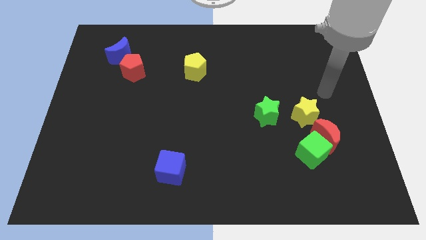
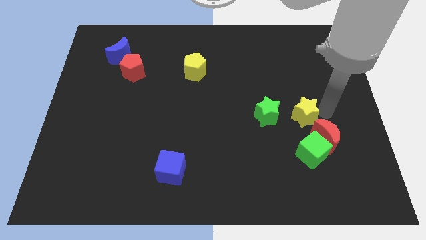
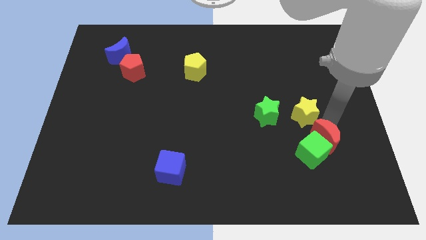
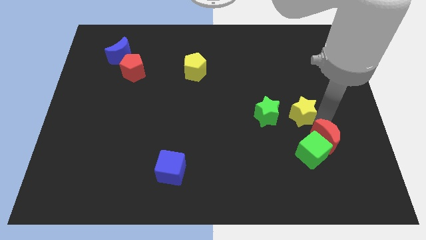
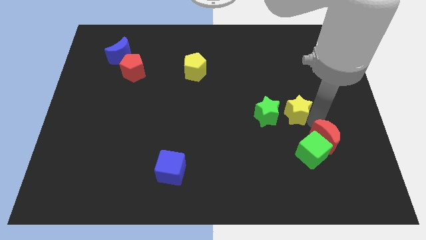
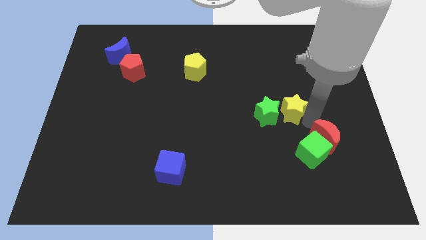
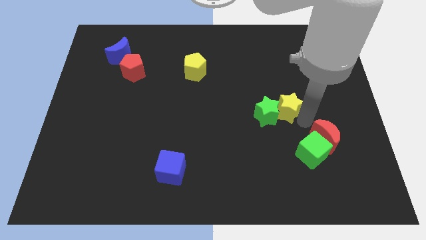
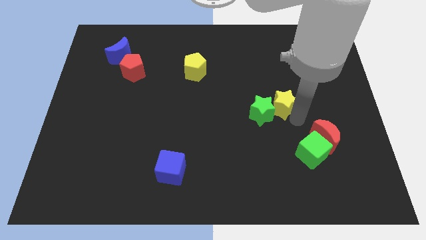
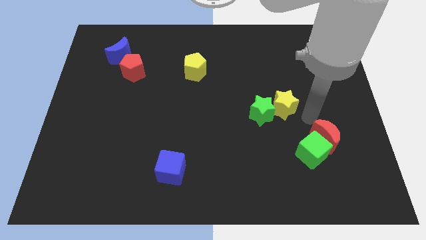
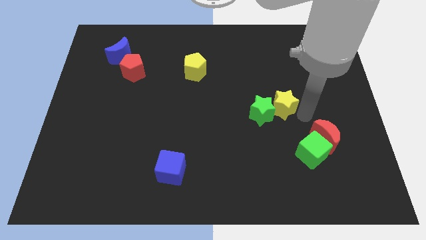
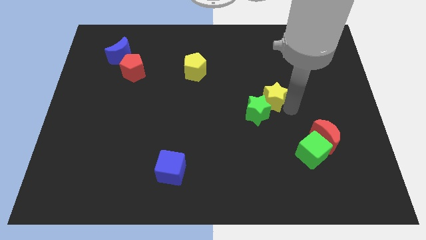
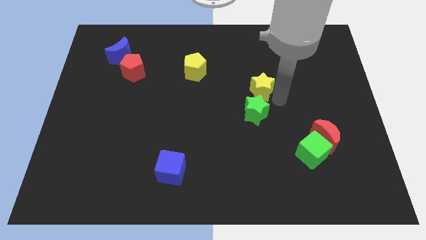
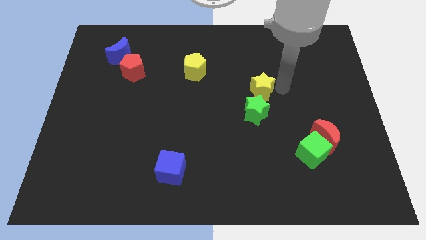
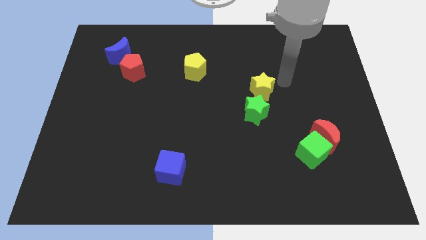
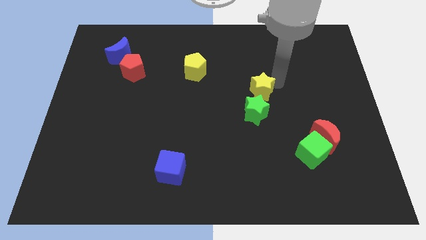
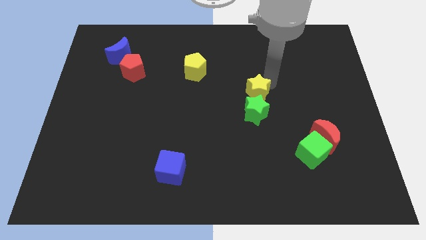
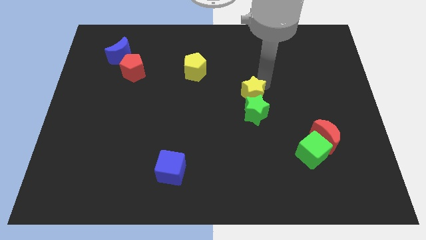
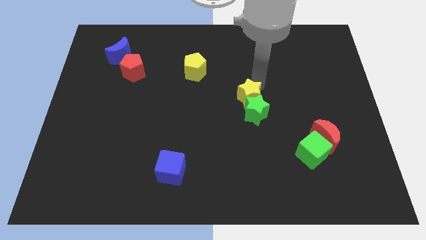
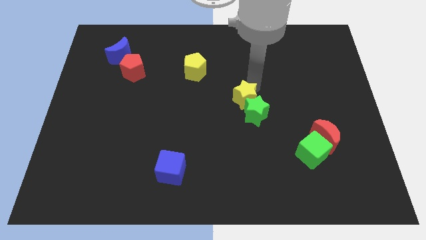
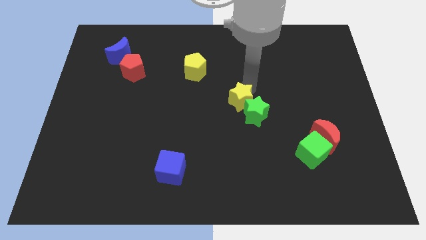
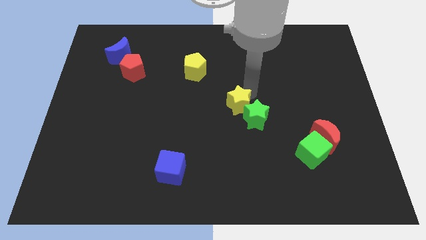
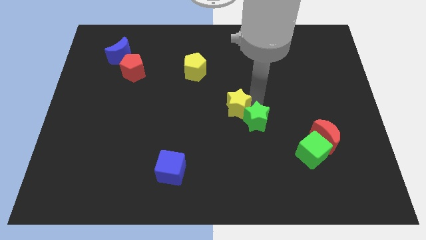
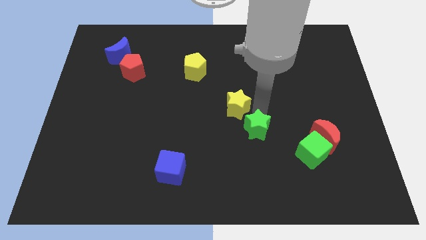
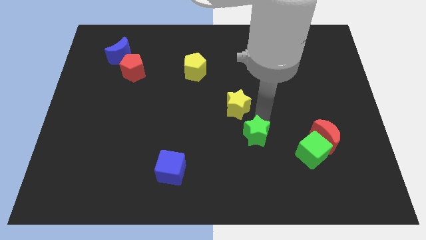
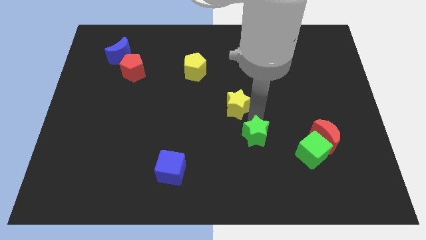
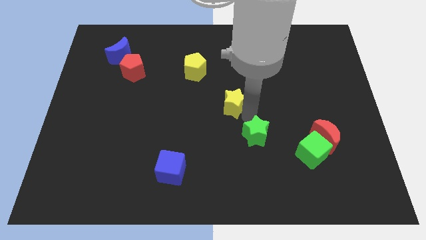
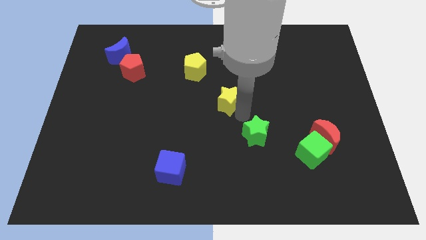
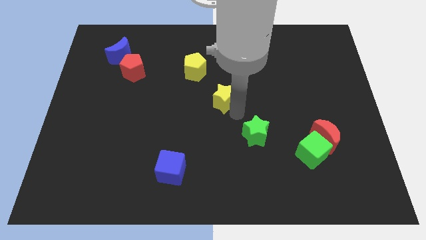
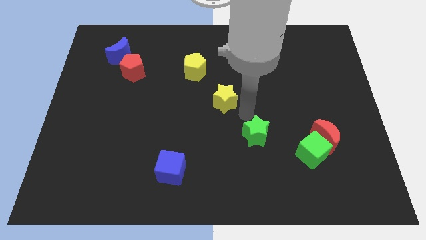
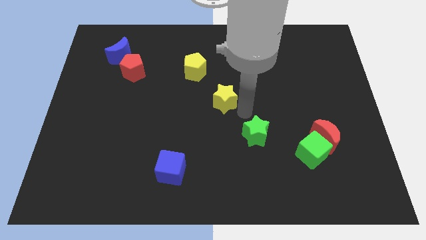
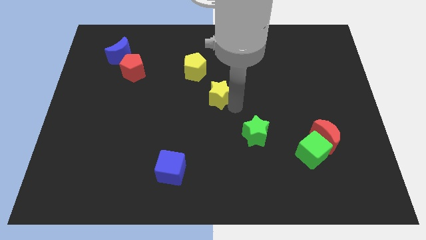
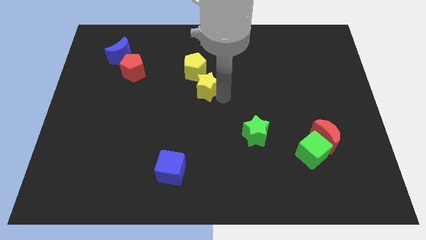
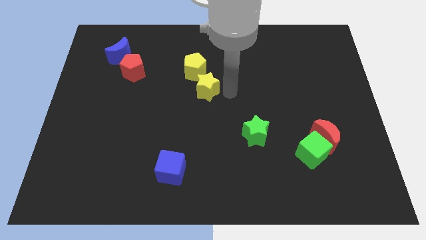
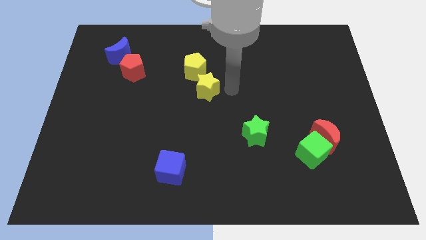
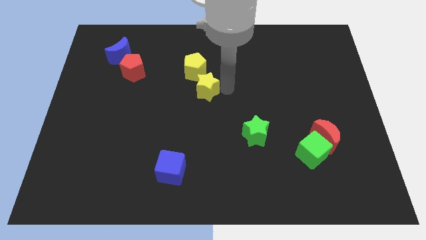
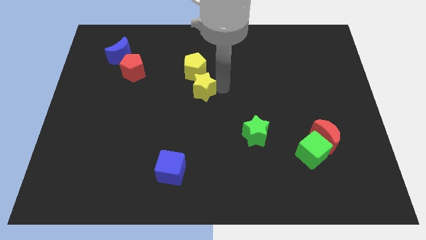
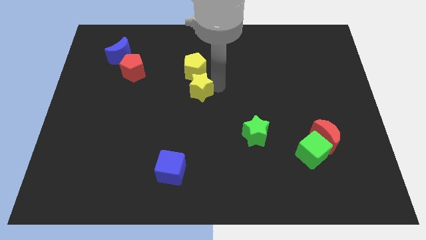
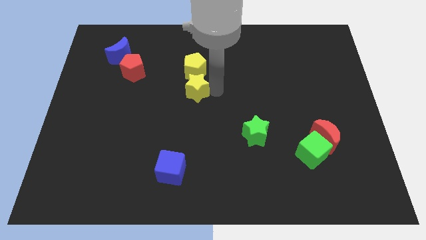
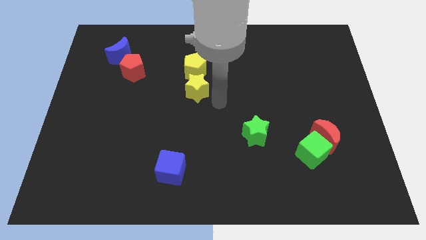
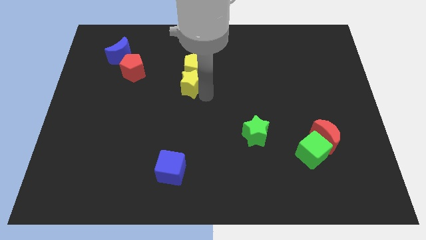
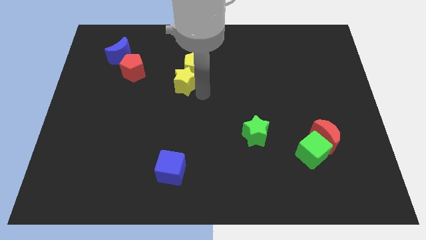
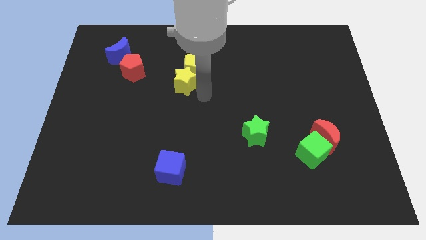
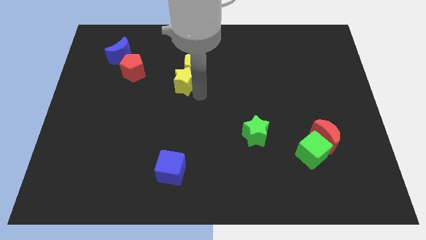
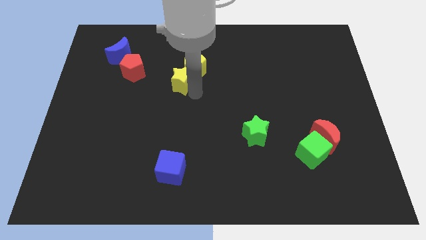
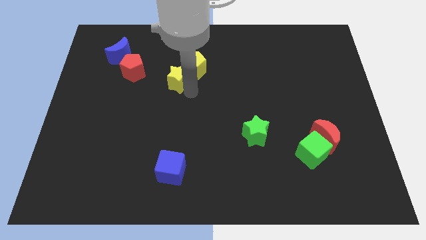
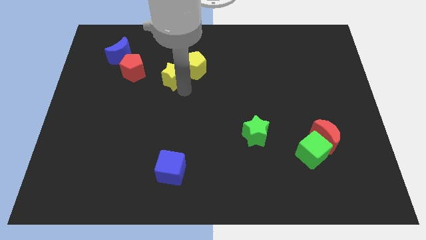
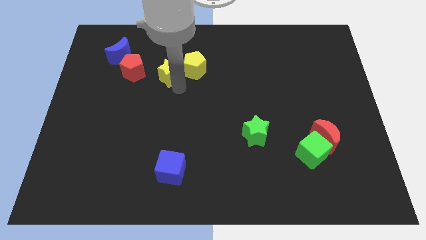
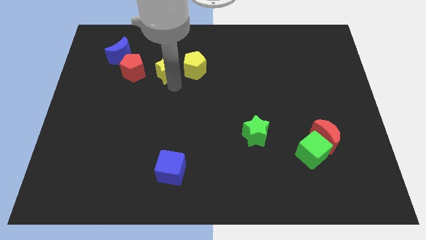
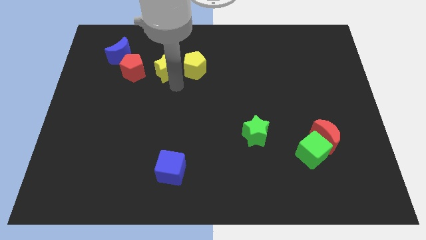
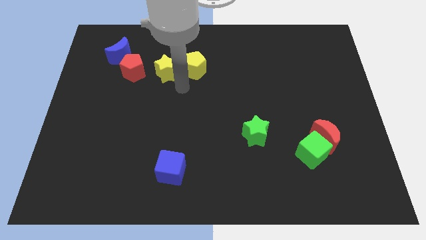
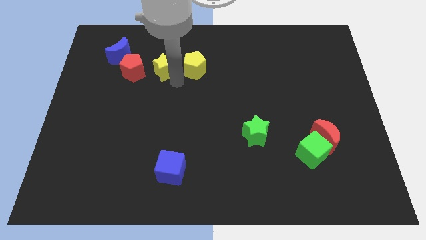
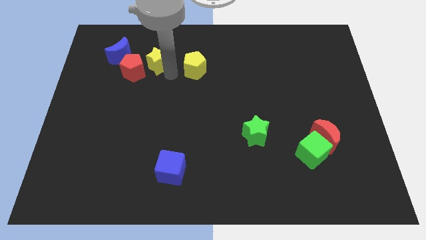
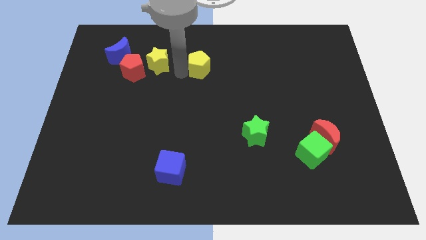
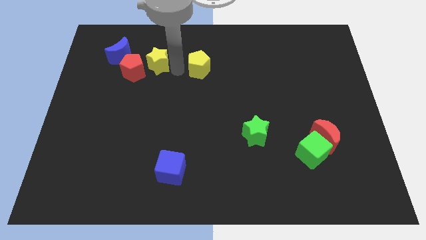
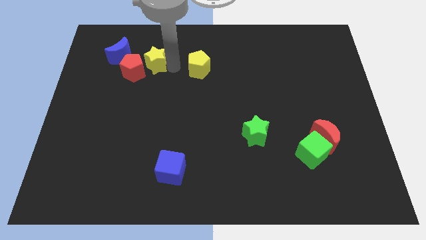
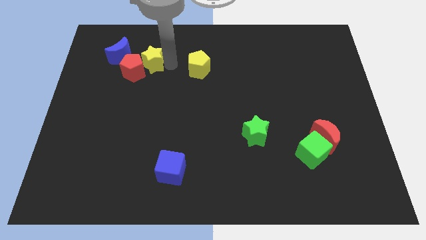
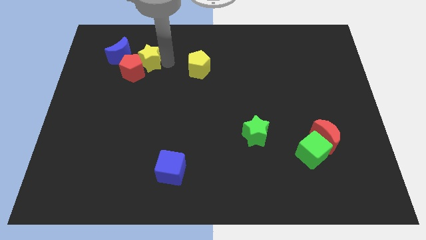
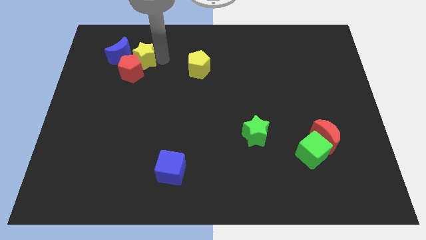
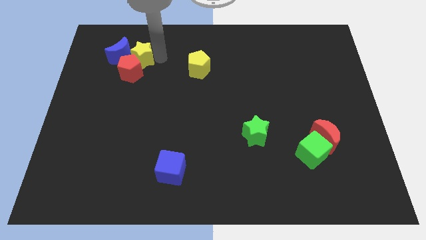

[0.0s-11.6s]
put the yellow star next to the blue moon

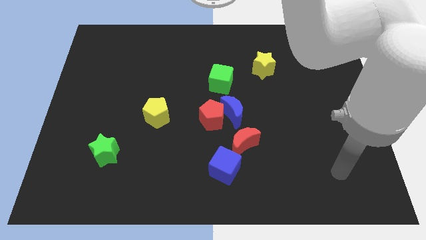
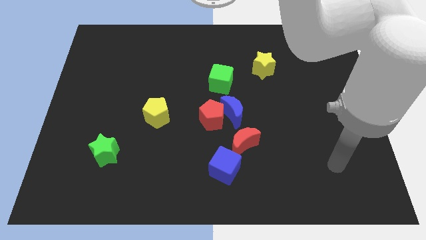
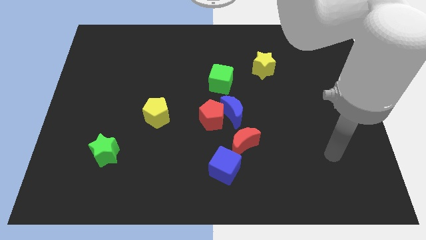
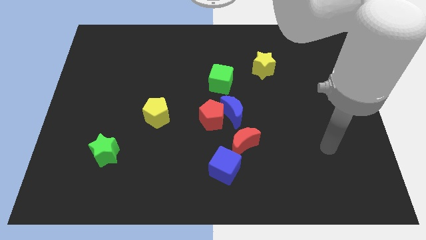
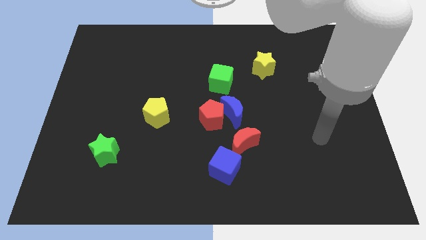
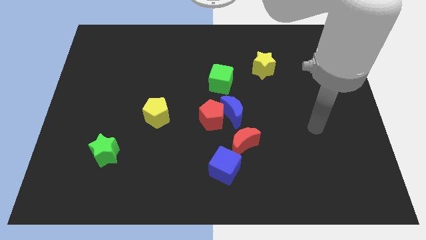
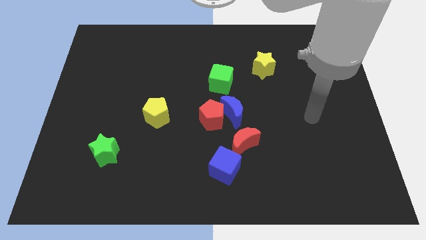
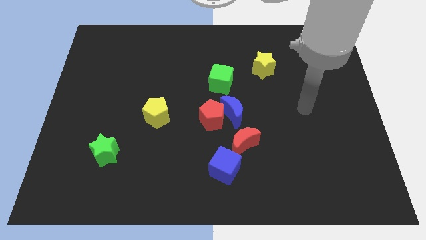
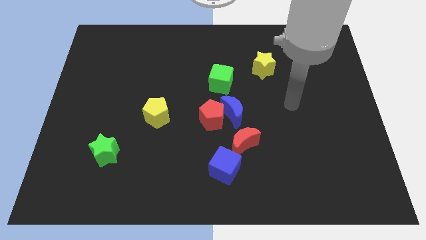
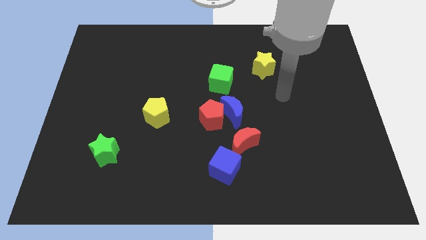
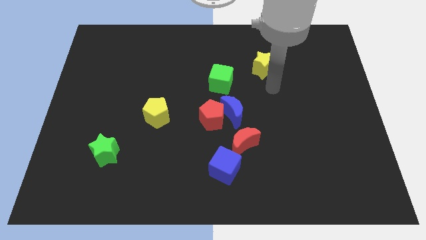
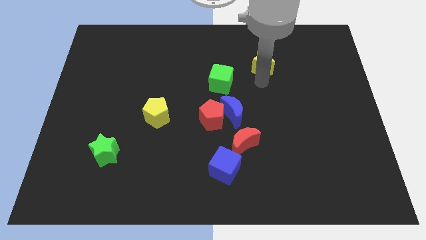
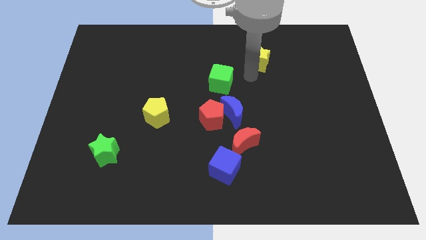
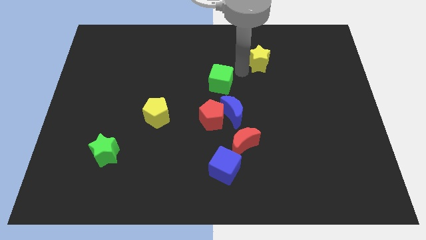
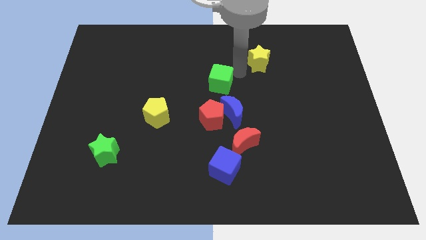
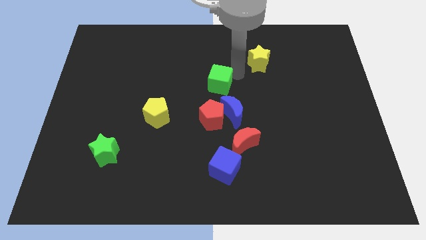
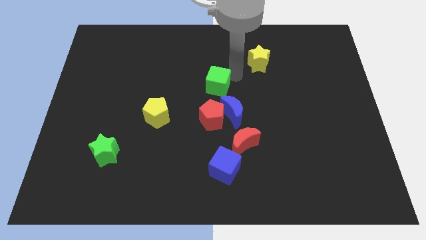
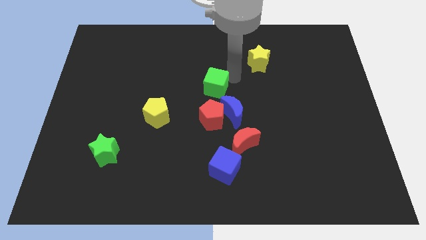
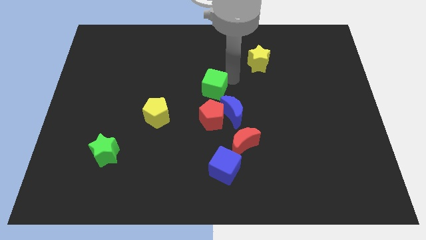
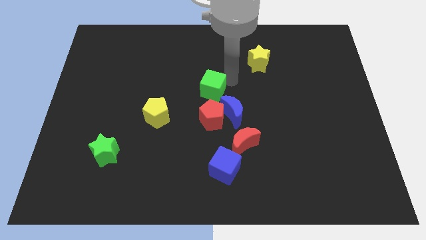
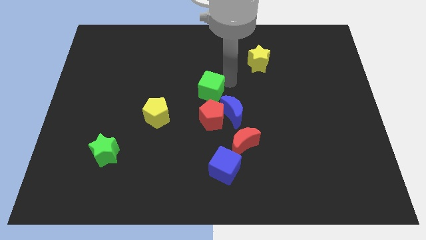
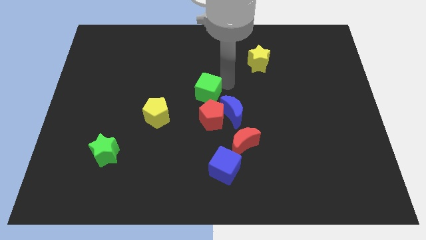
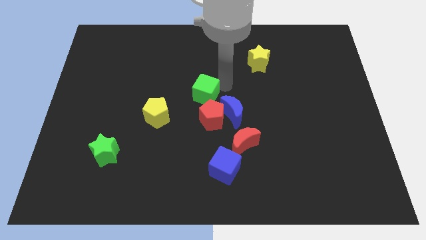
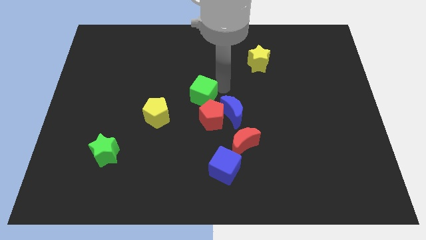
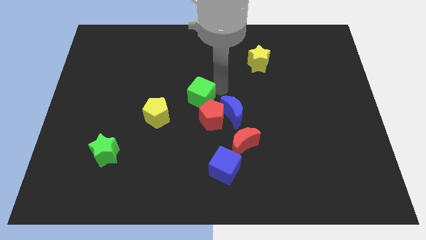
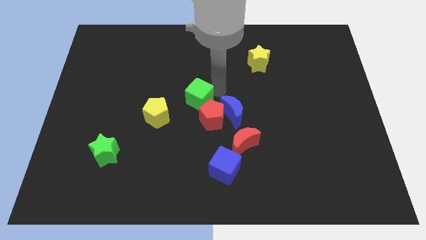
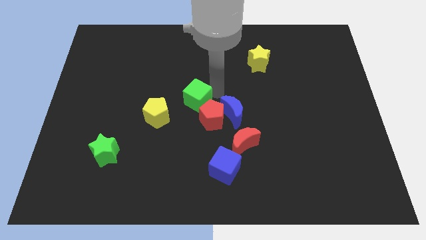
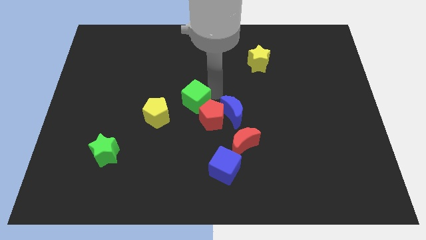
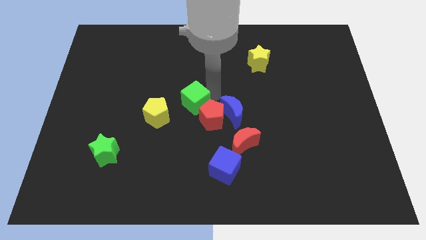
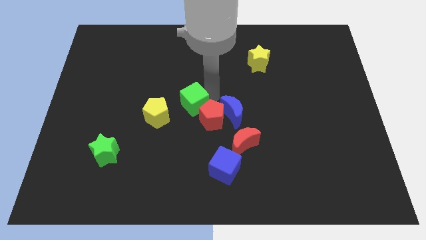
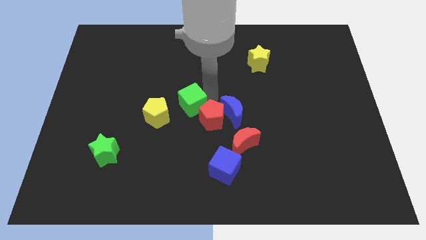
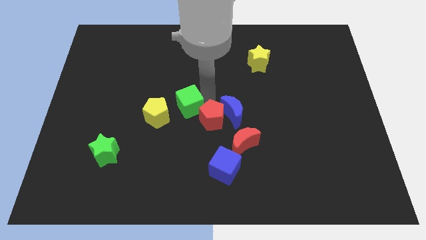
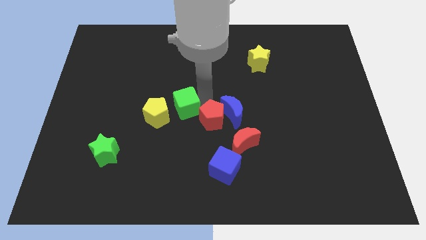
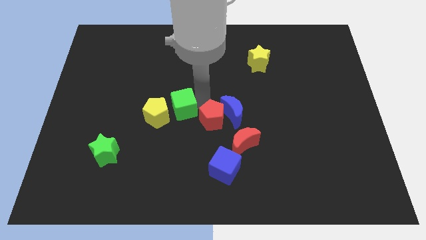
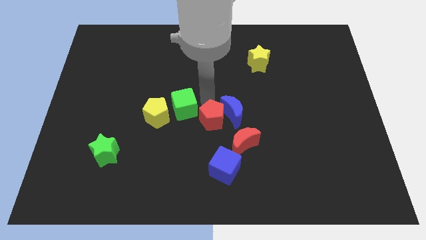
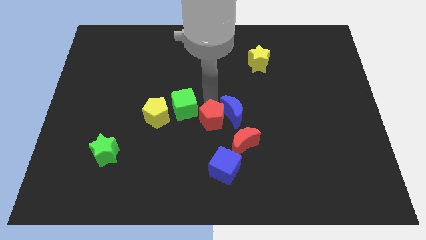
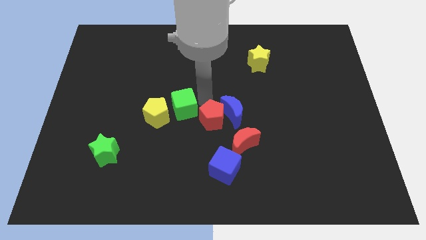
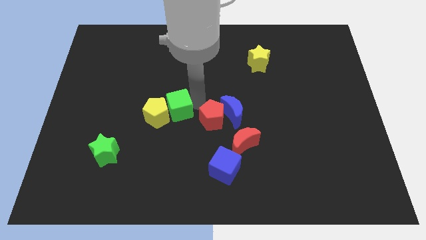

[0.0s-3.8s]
slide the green cube to the yellow pentagon
